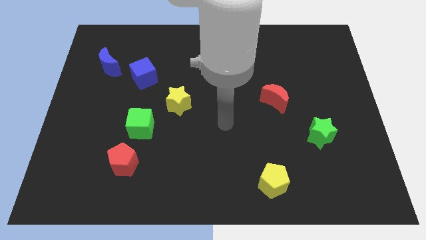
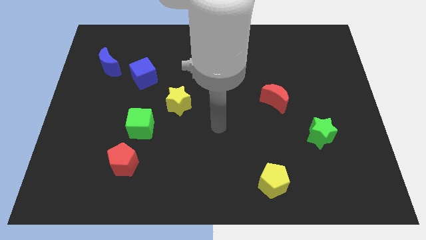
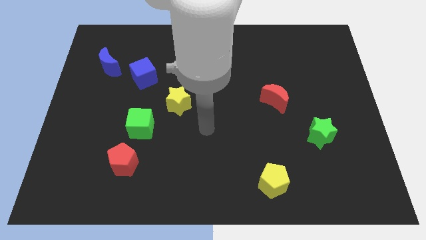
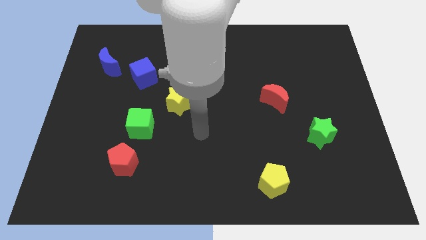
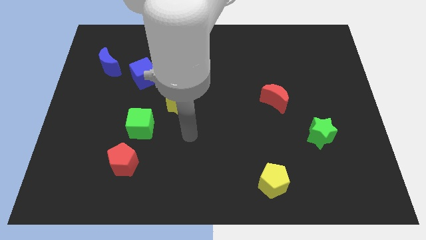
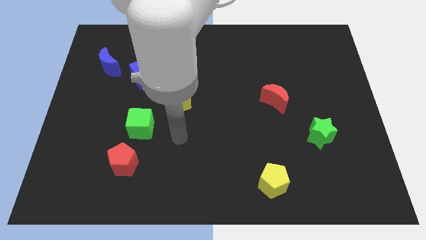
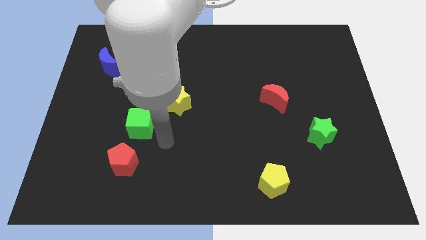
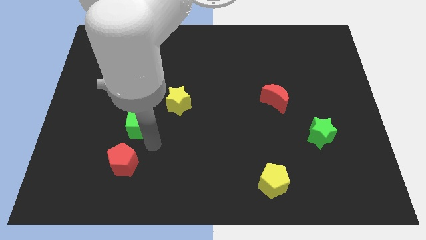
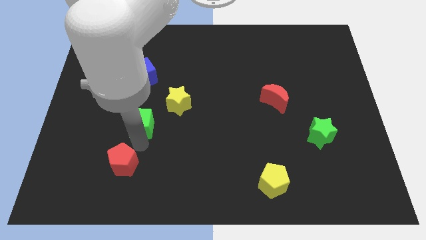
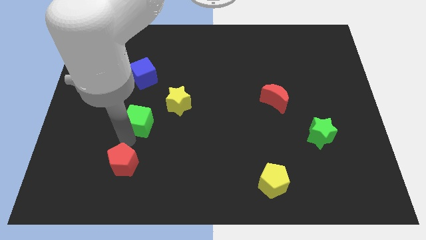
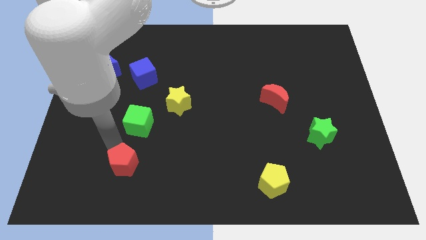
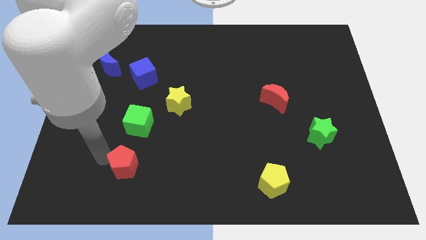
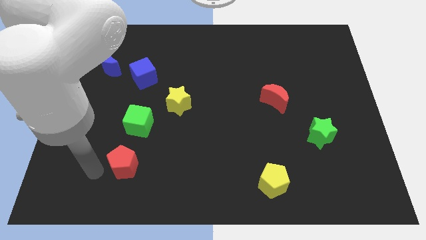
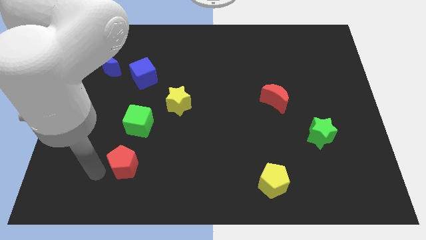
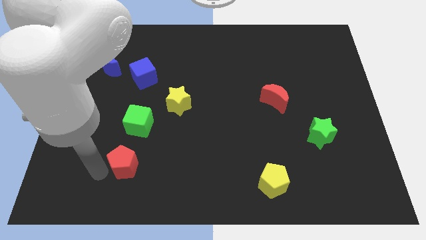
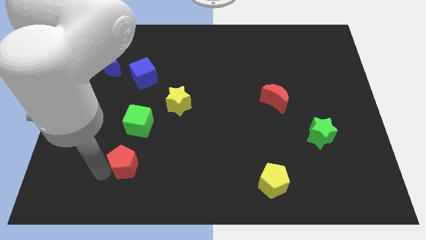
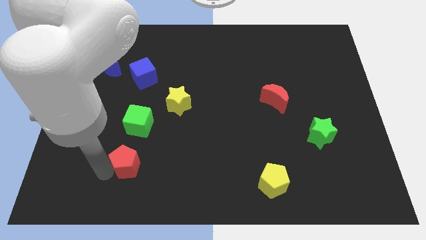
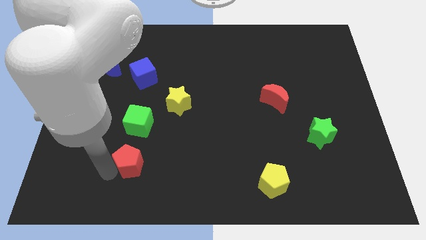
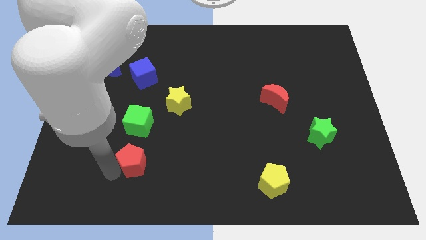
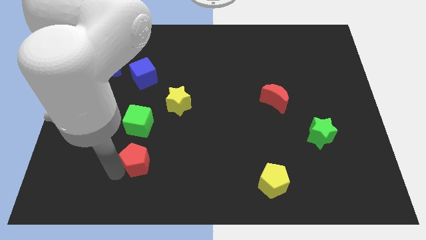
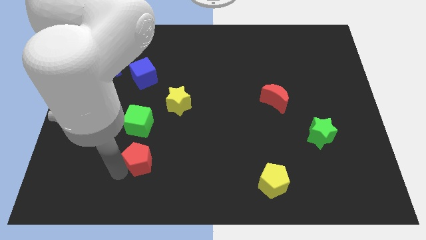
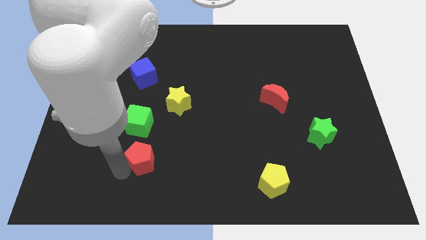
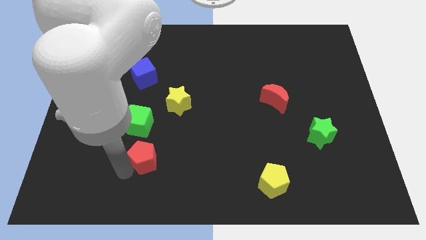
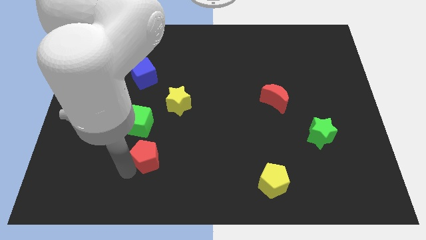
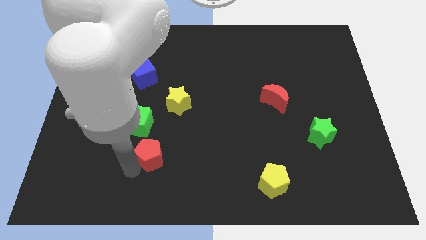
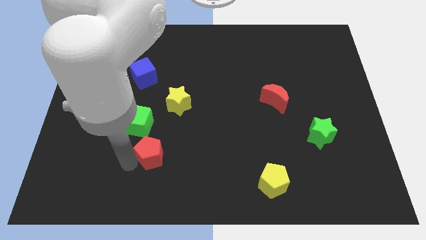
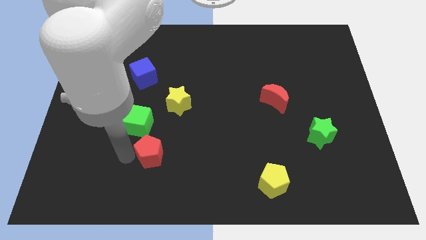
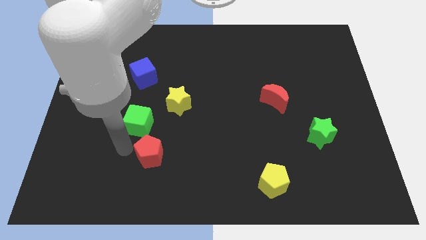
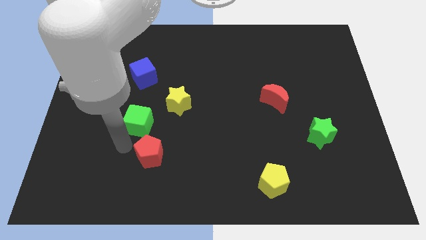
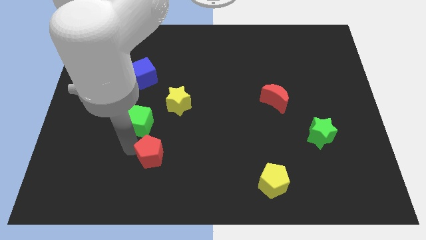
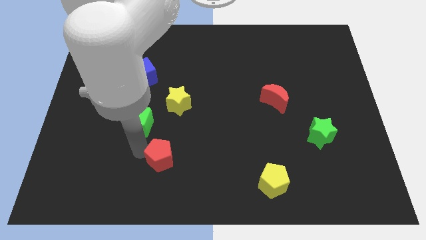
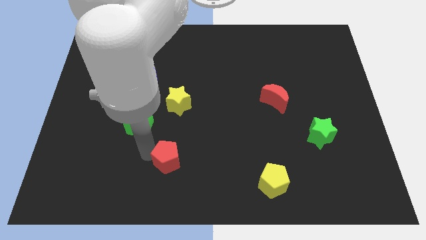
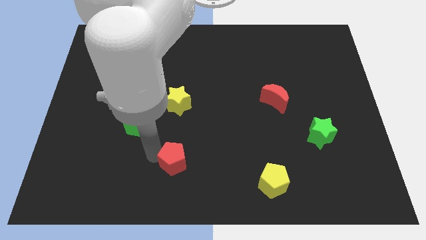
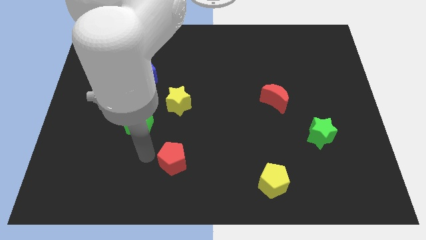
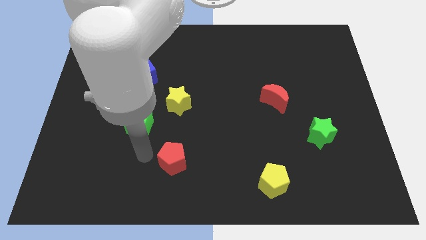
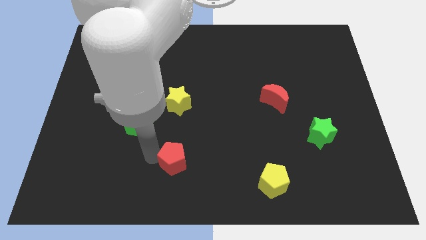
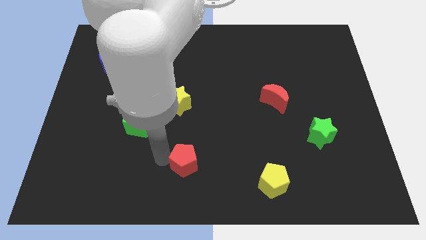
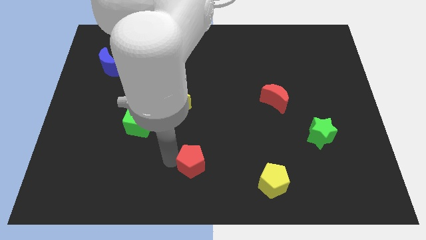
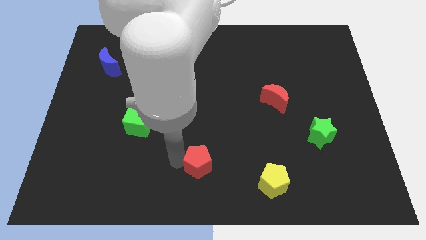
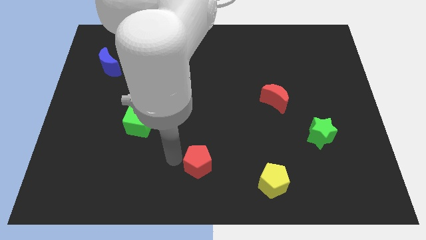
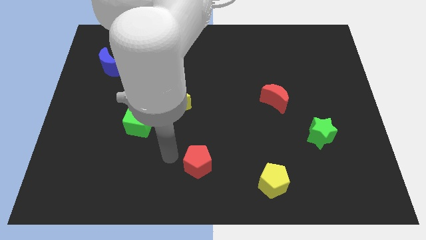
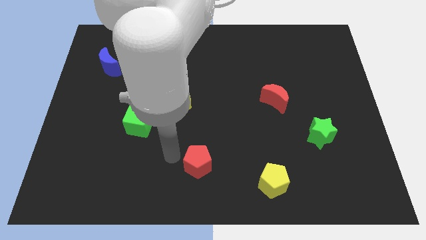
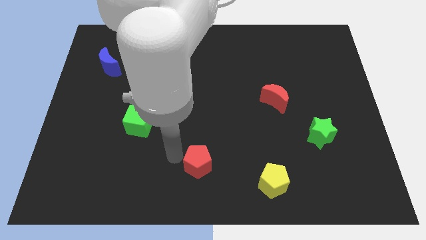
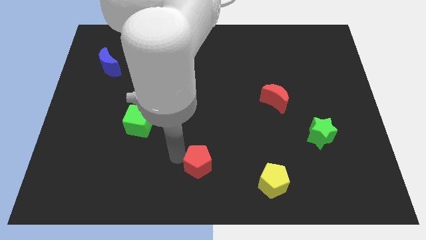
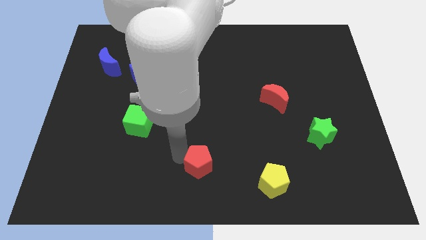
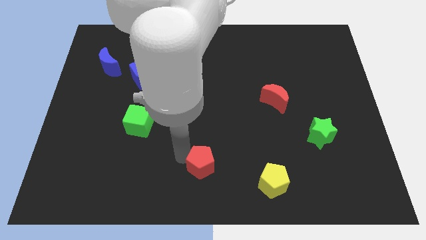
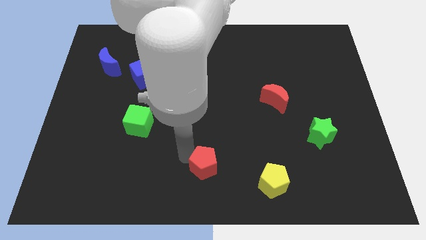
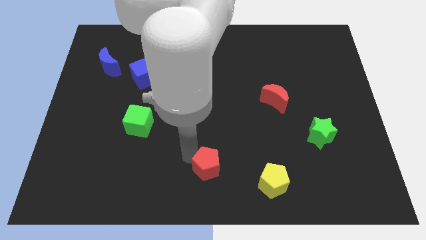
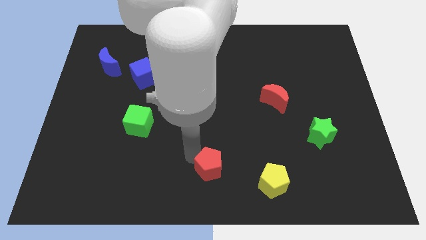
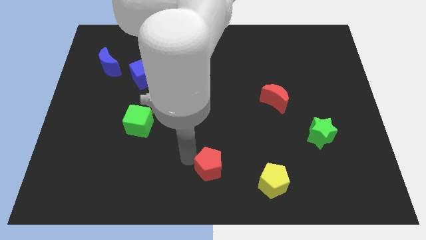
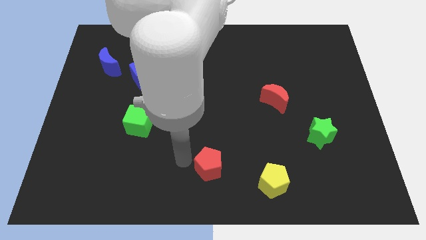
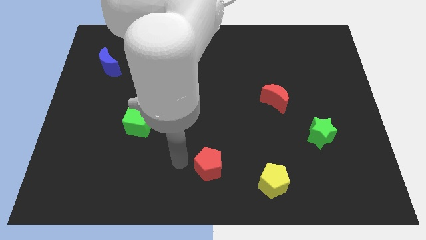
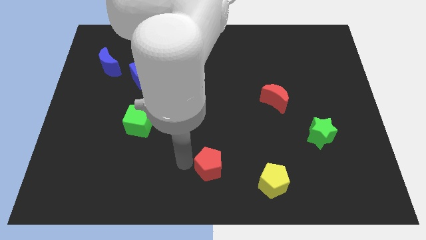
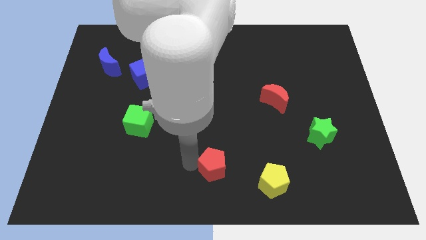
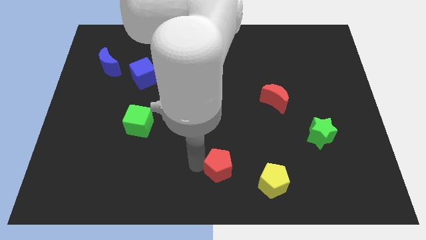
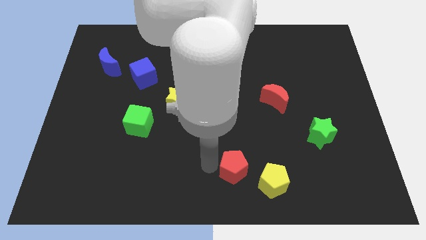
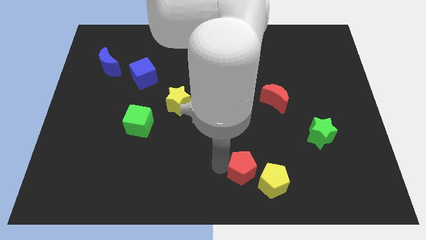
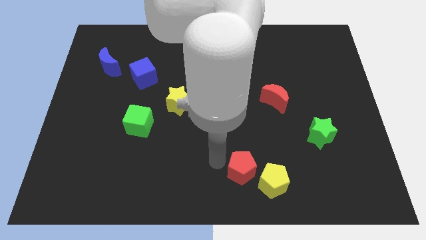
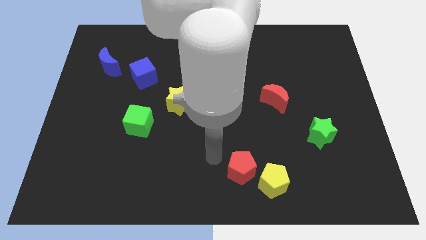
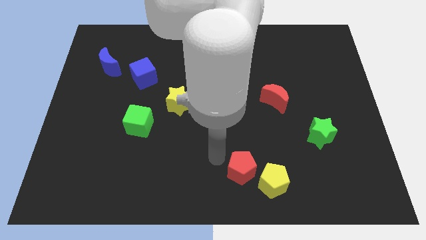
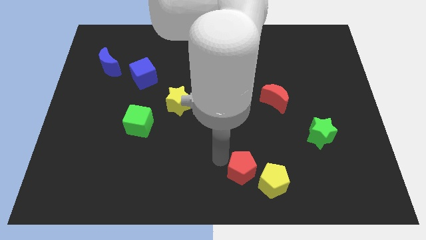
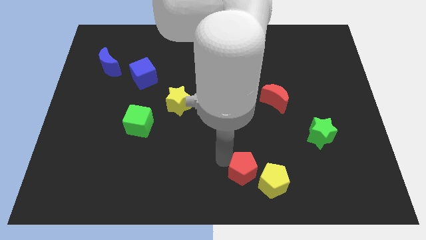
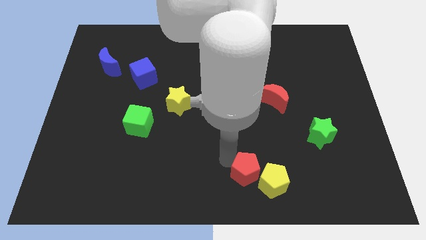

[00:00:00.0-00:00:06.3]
move the red pentagon to the yellow pentagon
